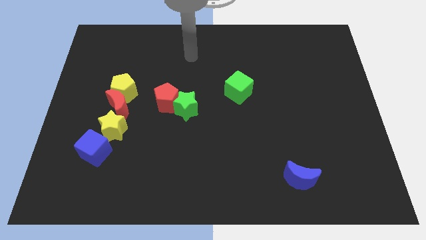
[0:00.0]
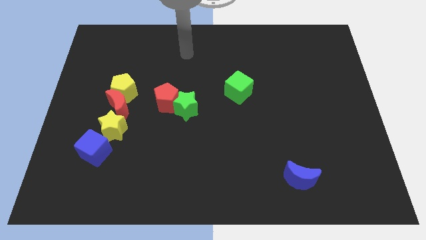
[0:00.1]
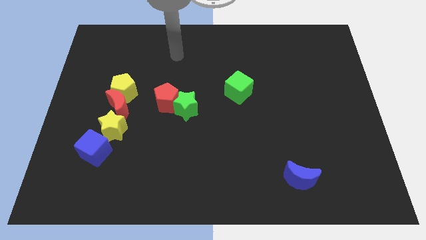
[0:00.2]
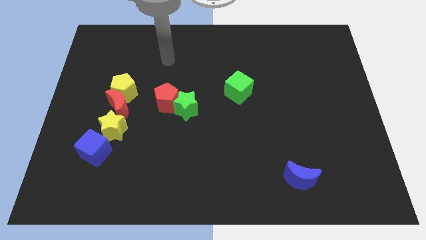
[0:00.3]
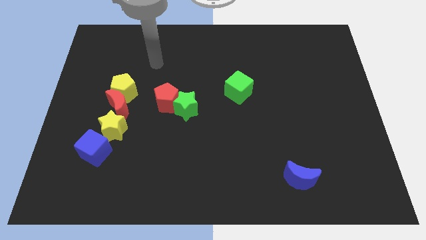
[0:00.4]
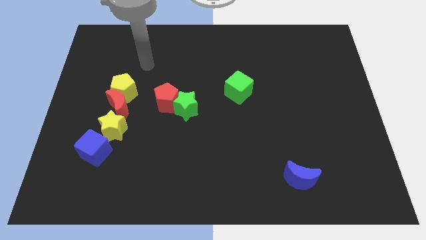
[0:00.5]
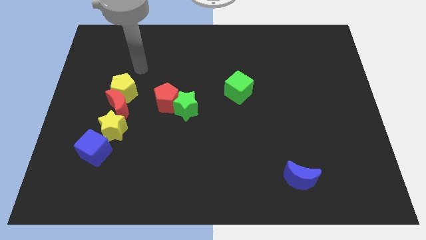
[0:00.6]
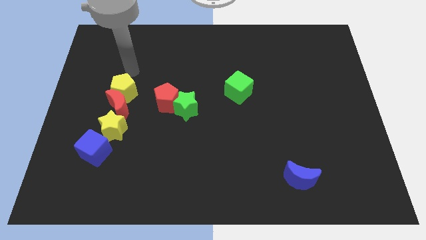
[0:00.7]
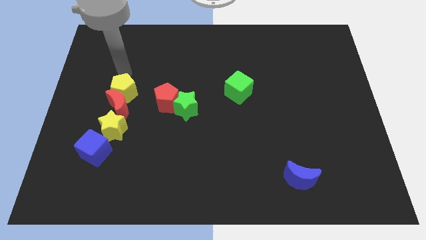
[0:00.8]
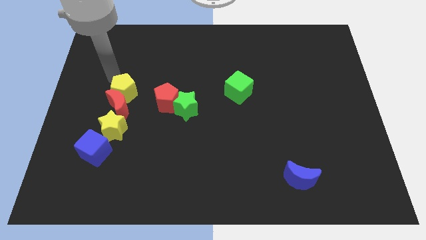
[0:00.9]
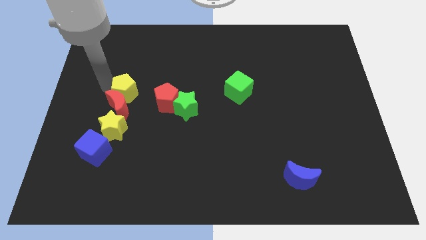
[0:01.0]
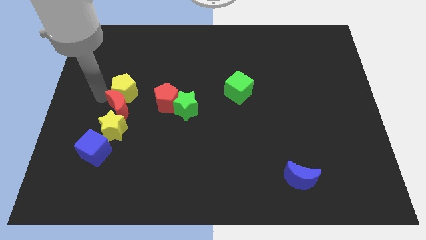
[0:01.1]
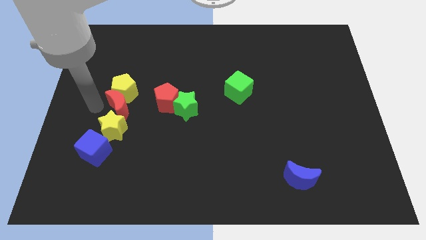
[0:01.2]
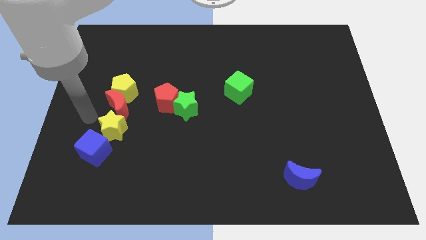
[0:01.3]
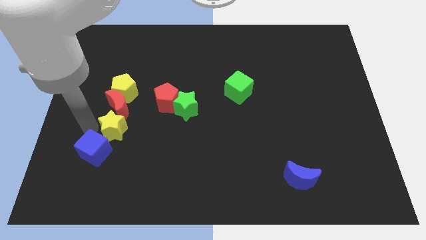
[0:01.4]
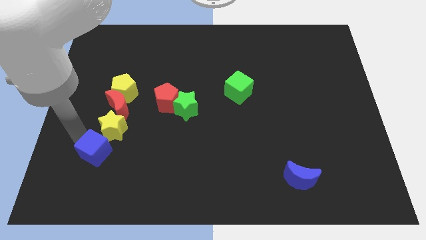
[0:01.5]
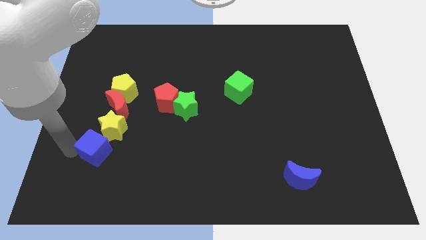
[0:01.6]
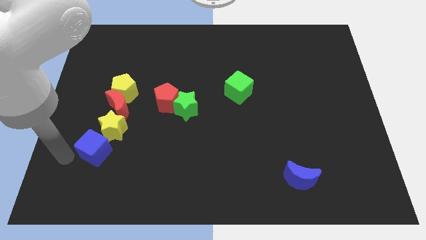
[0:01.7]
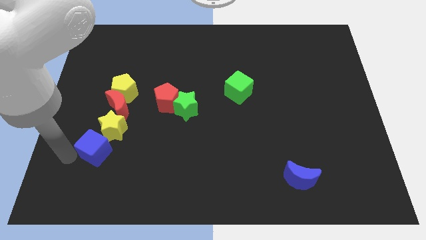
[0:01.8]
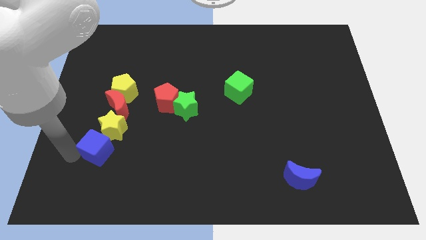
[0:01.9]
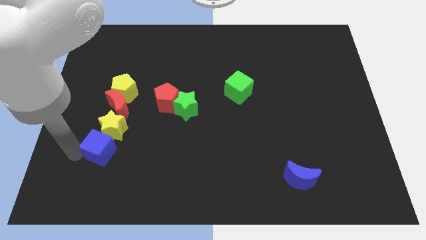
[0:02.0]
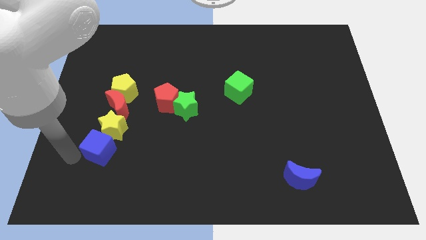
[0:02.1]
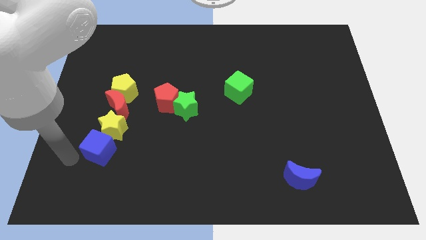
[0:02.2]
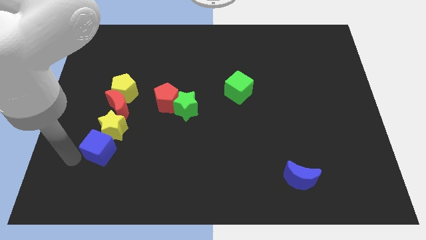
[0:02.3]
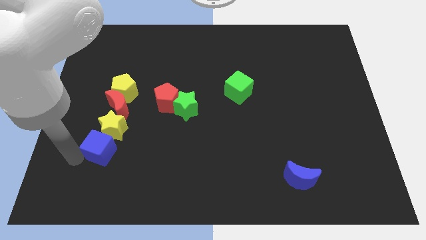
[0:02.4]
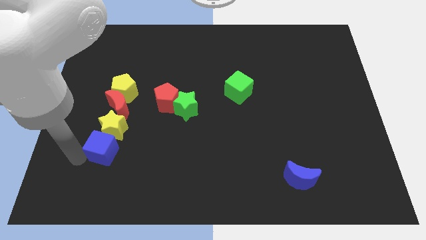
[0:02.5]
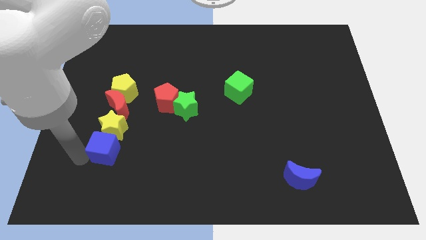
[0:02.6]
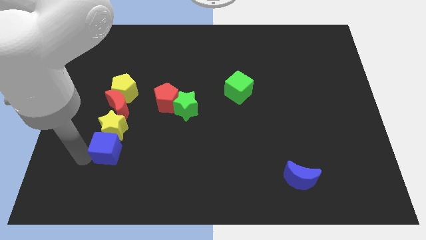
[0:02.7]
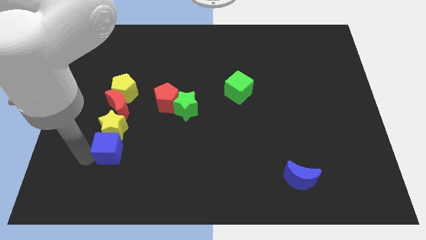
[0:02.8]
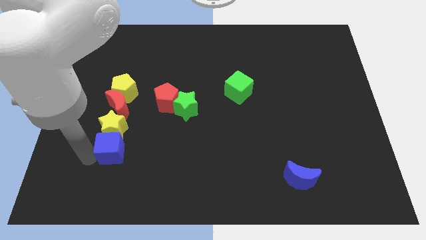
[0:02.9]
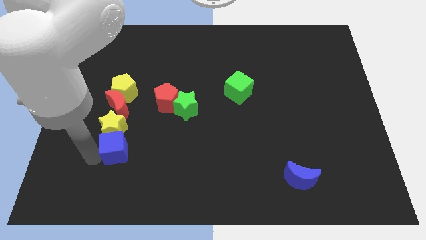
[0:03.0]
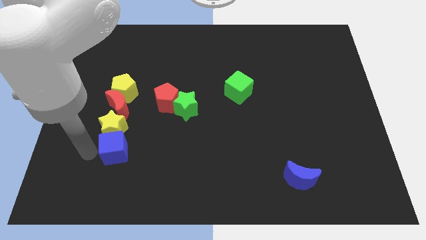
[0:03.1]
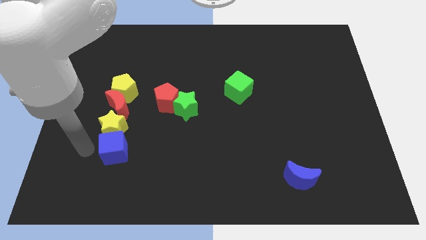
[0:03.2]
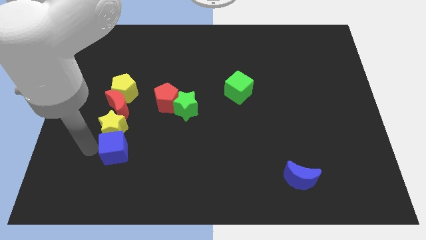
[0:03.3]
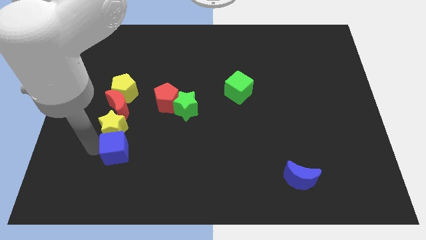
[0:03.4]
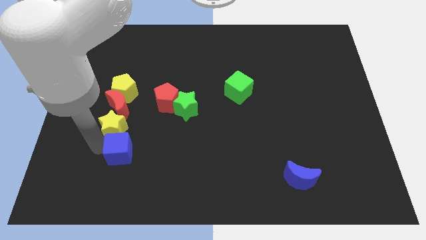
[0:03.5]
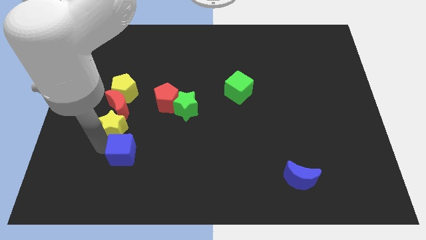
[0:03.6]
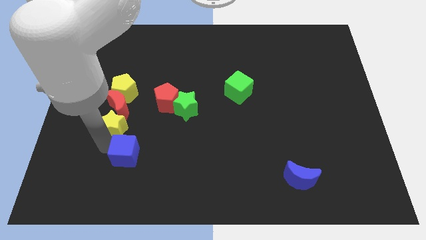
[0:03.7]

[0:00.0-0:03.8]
slightly slide the blue cube right

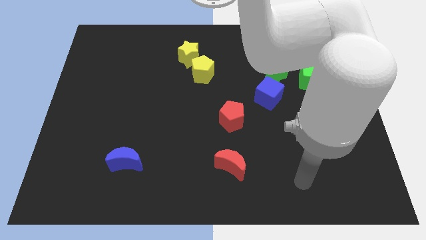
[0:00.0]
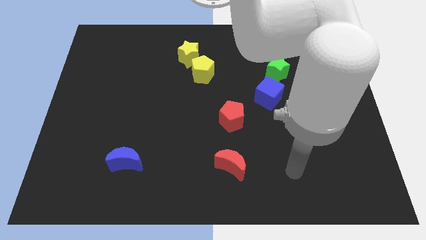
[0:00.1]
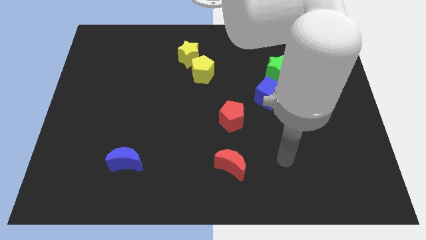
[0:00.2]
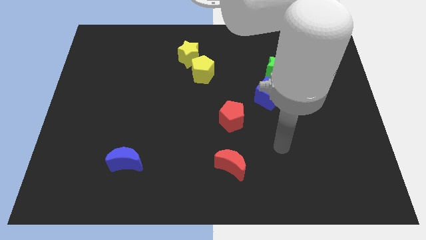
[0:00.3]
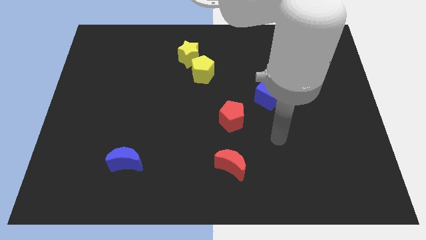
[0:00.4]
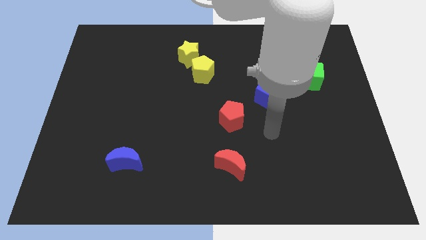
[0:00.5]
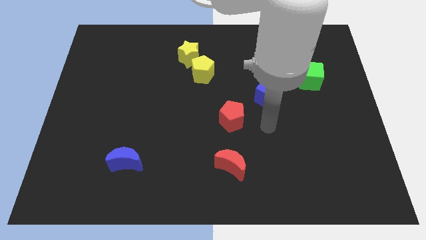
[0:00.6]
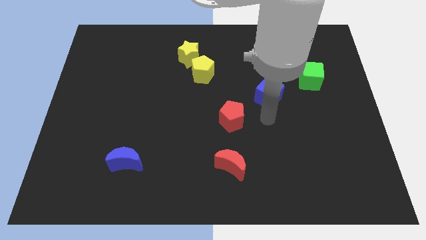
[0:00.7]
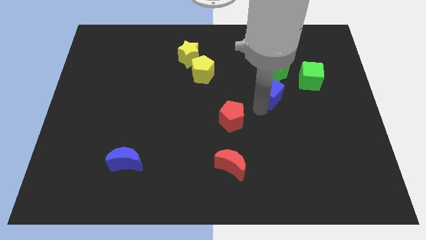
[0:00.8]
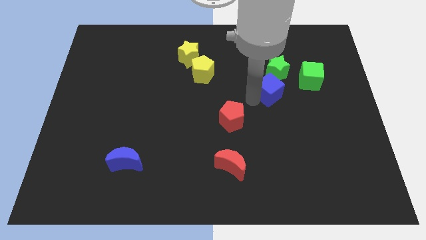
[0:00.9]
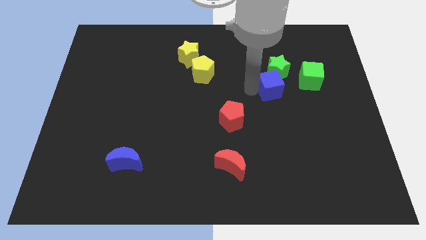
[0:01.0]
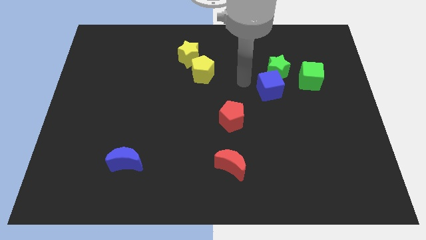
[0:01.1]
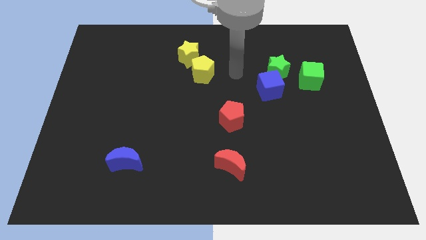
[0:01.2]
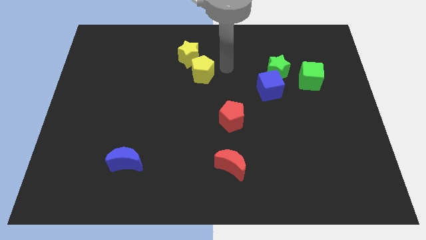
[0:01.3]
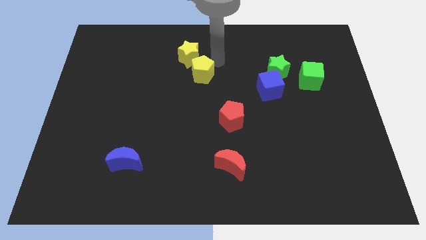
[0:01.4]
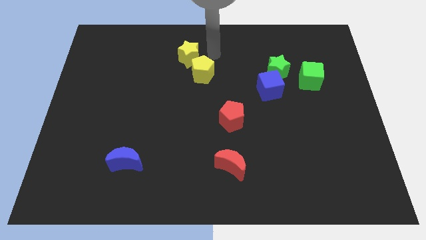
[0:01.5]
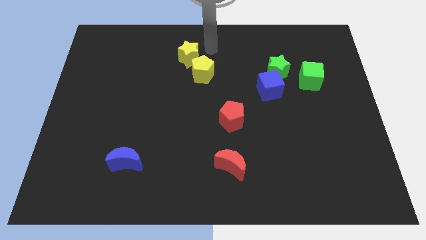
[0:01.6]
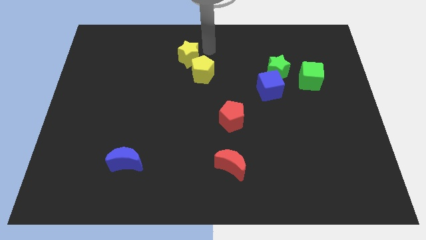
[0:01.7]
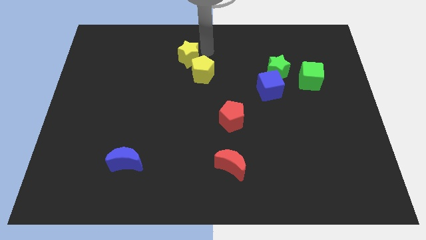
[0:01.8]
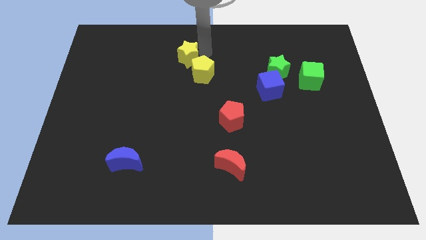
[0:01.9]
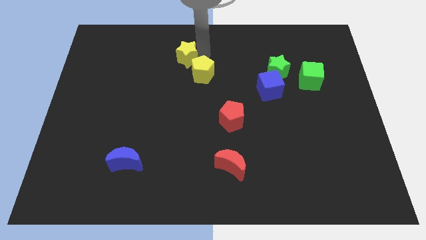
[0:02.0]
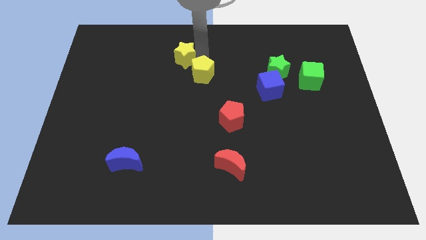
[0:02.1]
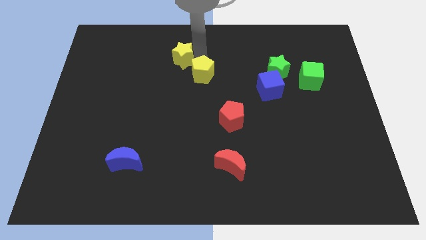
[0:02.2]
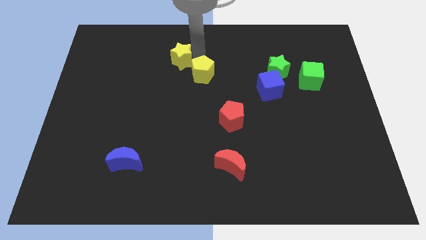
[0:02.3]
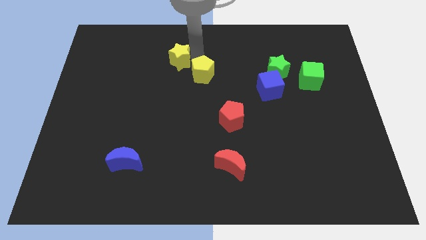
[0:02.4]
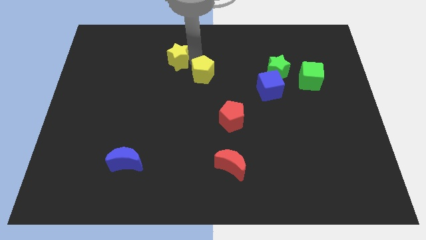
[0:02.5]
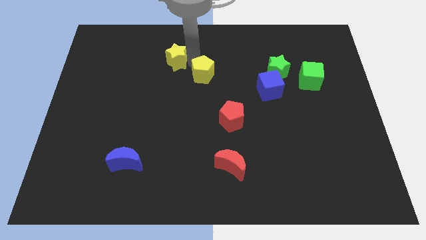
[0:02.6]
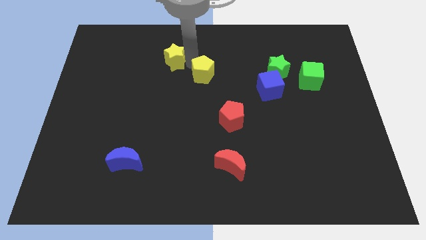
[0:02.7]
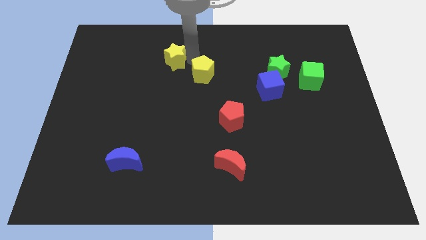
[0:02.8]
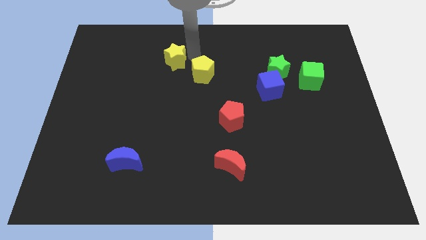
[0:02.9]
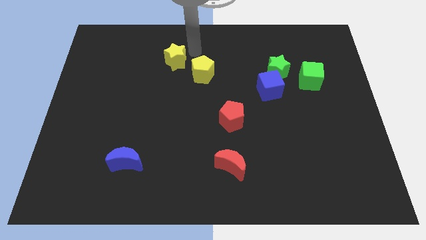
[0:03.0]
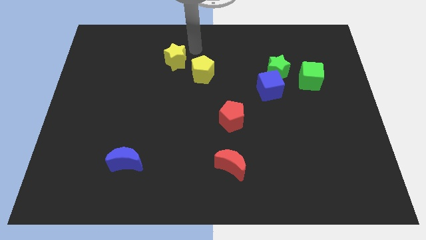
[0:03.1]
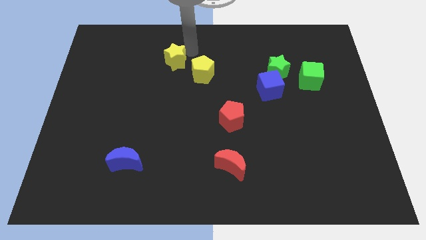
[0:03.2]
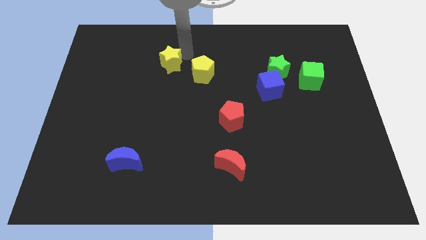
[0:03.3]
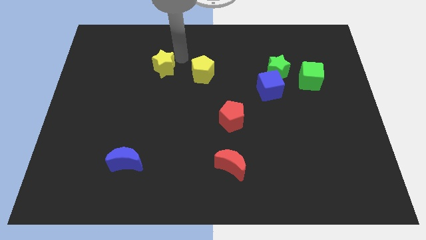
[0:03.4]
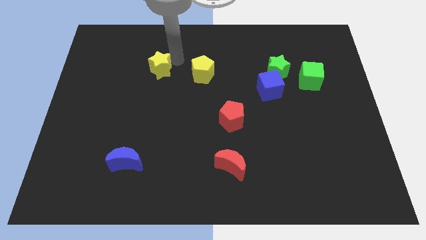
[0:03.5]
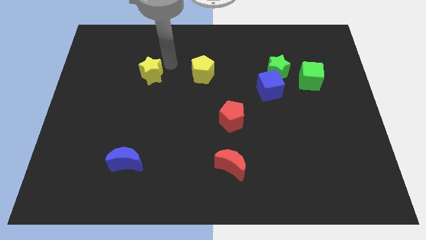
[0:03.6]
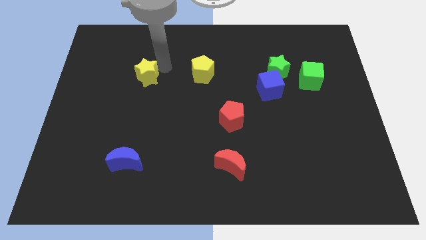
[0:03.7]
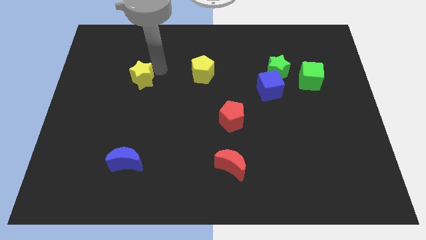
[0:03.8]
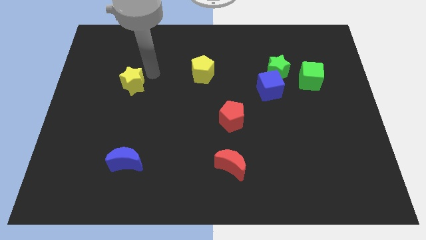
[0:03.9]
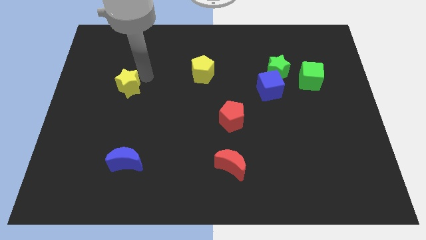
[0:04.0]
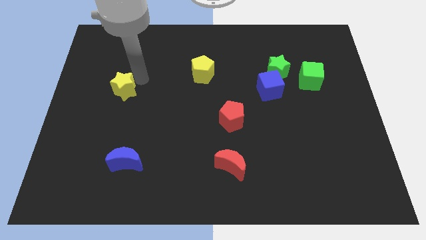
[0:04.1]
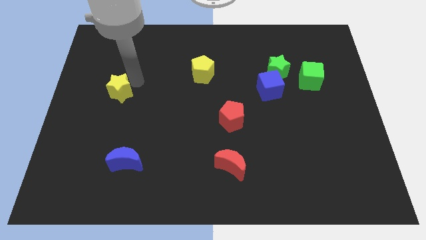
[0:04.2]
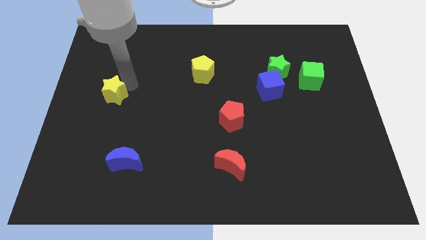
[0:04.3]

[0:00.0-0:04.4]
move the yellow star downwards and left diagonally
